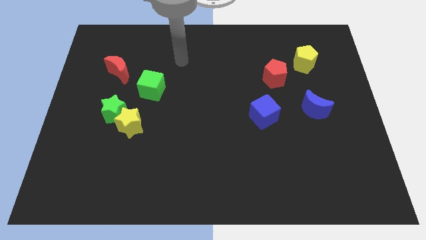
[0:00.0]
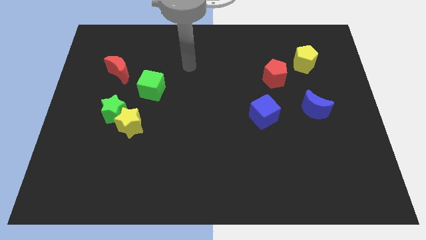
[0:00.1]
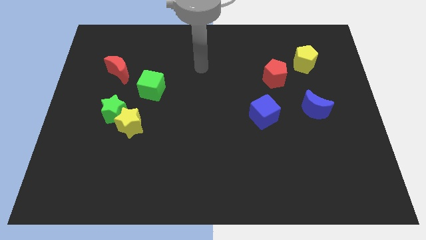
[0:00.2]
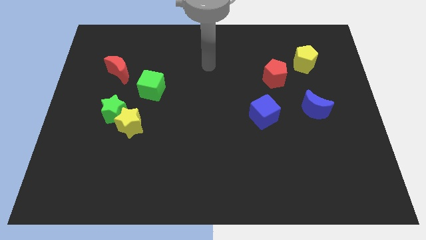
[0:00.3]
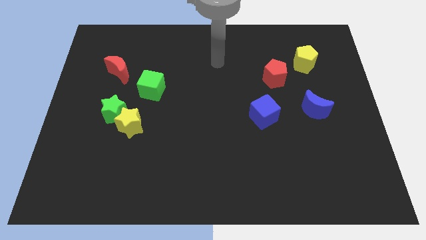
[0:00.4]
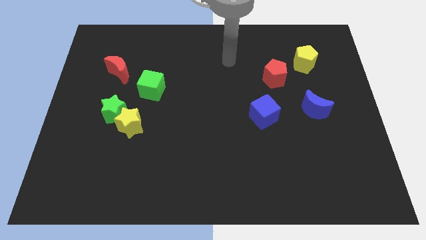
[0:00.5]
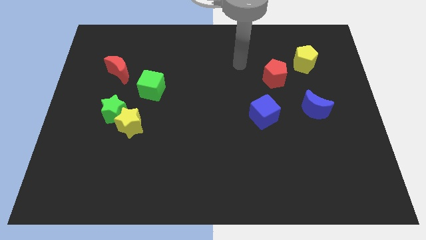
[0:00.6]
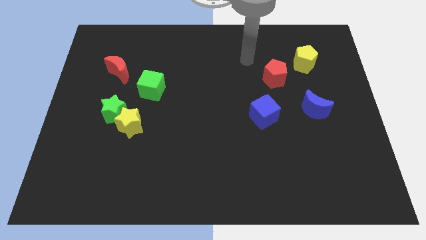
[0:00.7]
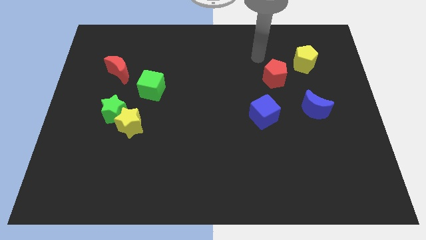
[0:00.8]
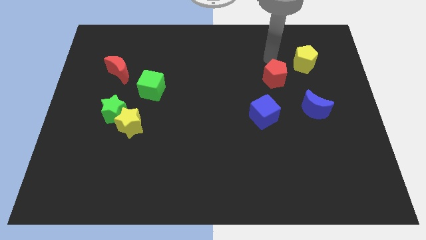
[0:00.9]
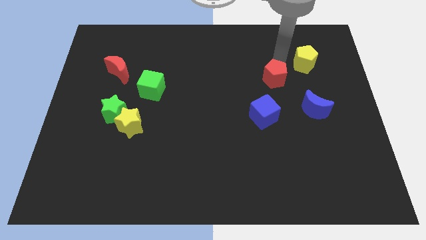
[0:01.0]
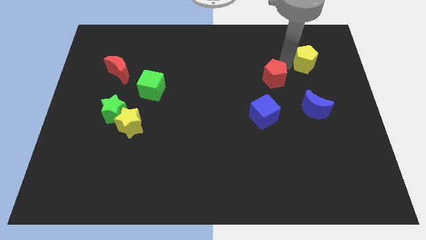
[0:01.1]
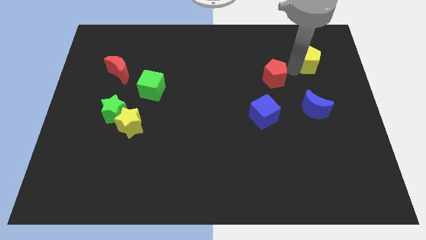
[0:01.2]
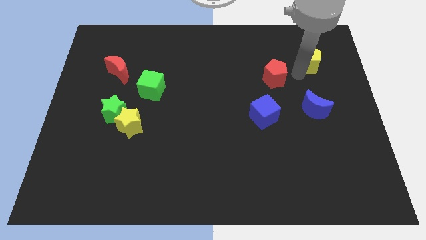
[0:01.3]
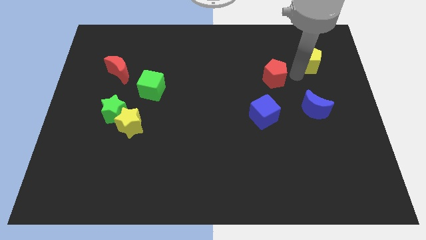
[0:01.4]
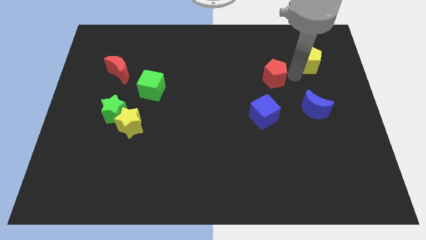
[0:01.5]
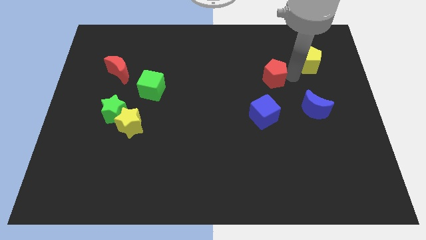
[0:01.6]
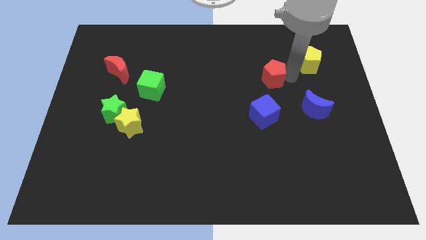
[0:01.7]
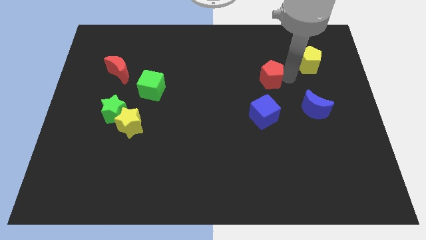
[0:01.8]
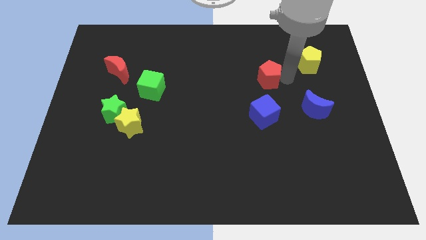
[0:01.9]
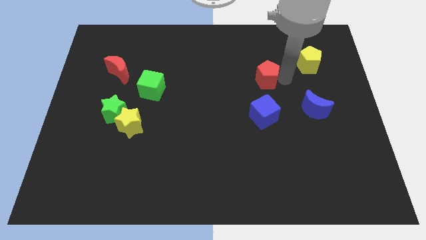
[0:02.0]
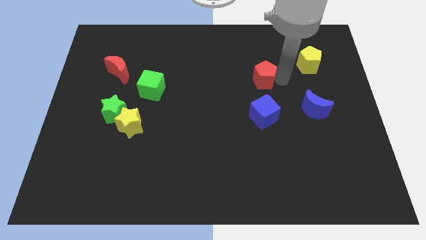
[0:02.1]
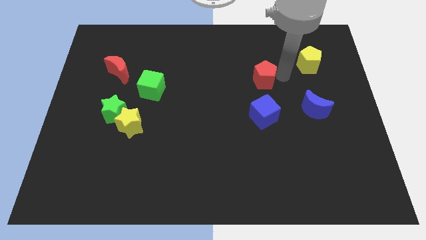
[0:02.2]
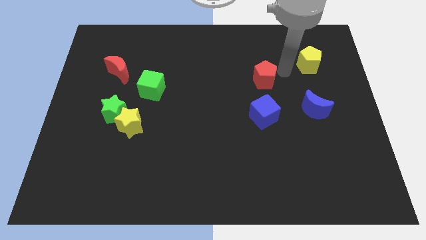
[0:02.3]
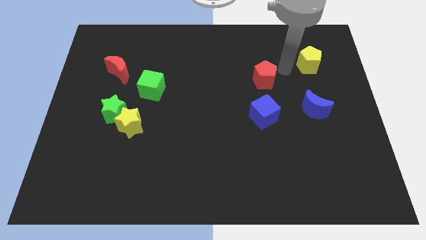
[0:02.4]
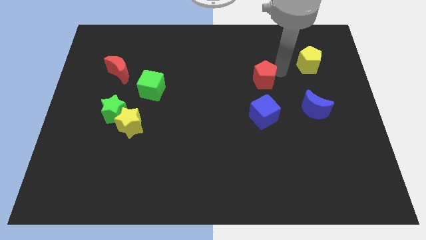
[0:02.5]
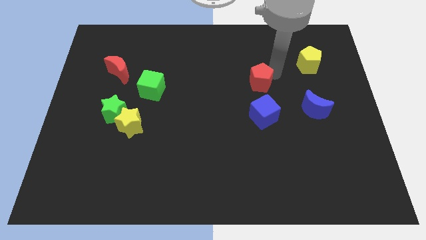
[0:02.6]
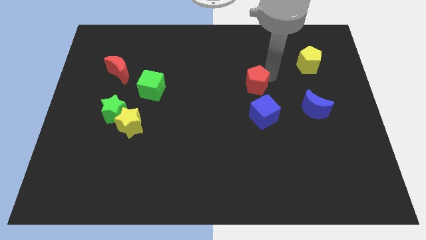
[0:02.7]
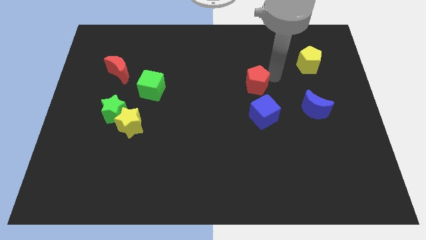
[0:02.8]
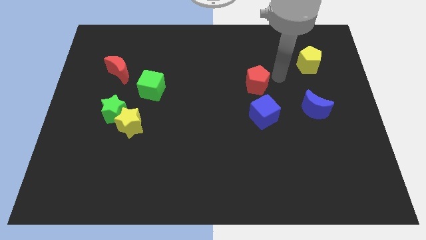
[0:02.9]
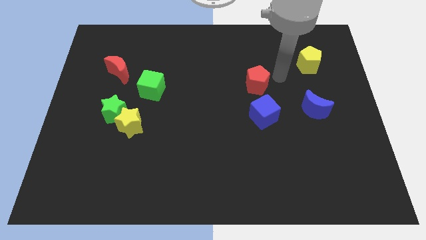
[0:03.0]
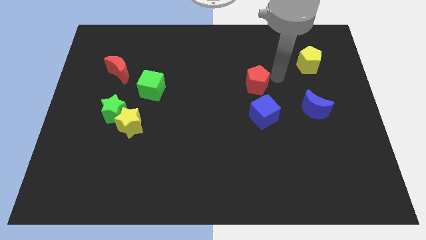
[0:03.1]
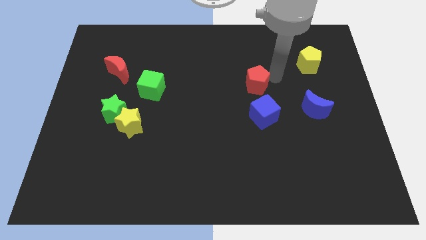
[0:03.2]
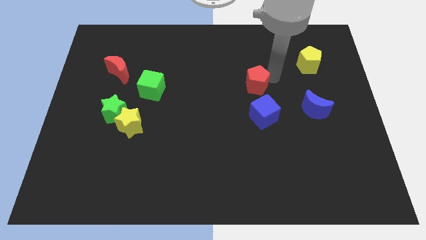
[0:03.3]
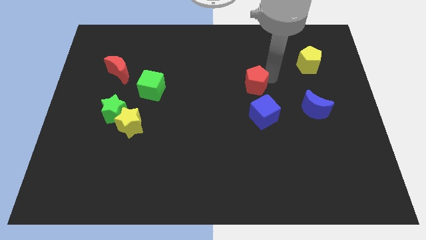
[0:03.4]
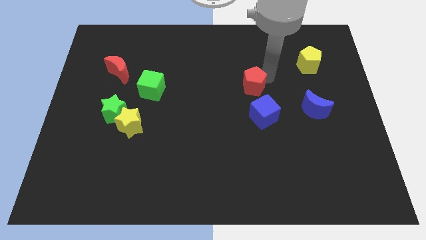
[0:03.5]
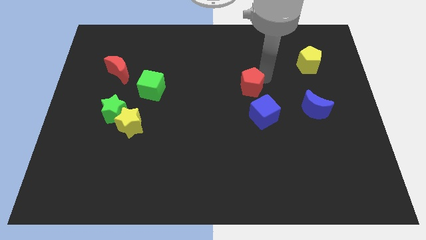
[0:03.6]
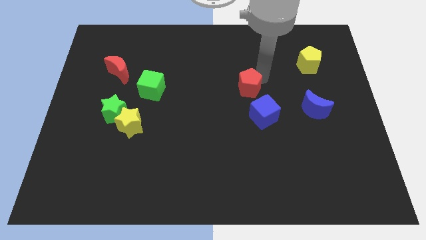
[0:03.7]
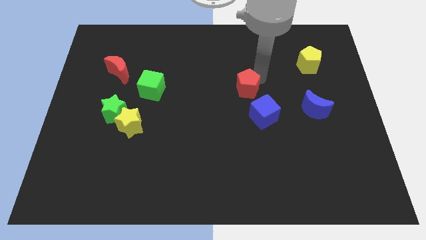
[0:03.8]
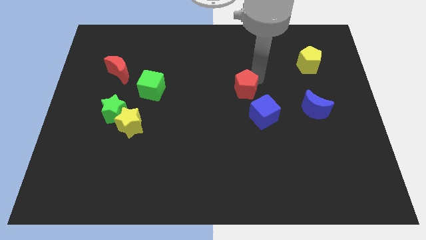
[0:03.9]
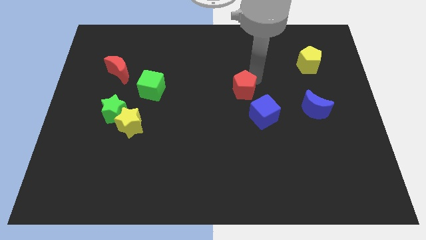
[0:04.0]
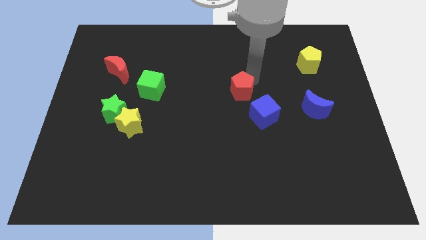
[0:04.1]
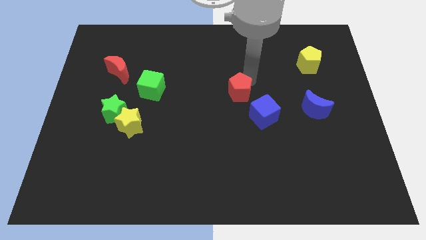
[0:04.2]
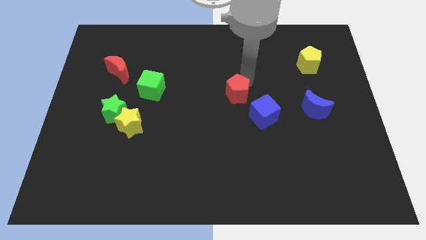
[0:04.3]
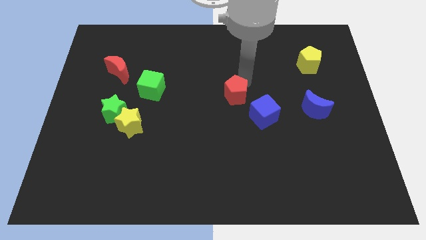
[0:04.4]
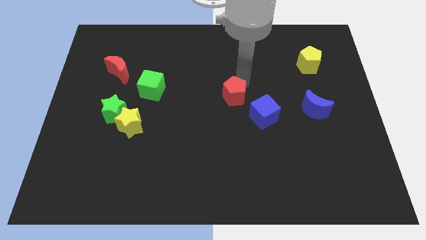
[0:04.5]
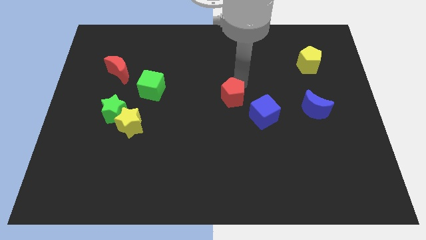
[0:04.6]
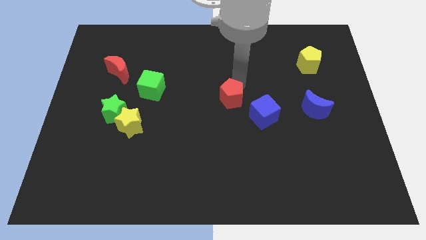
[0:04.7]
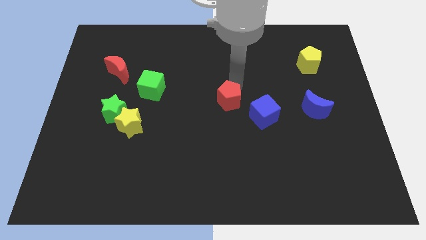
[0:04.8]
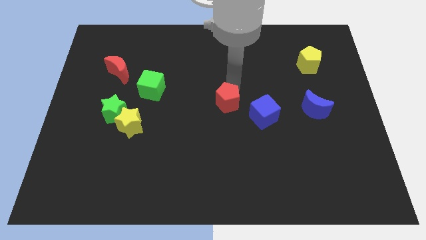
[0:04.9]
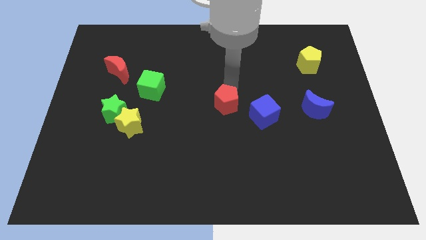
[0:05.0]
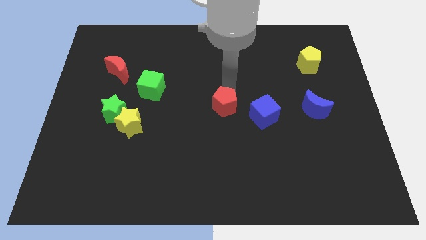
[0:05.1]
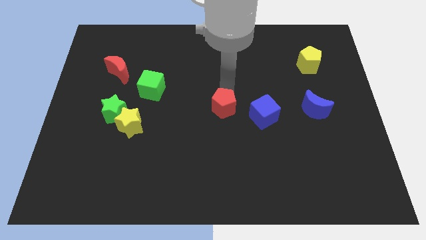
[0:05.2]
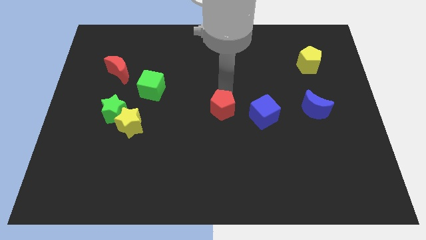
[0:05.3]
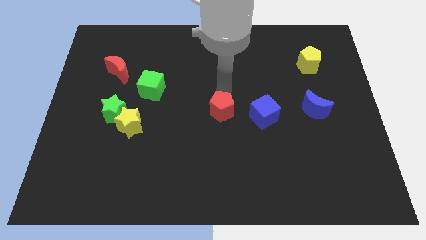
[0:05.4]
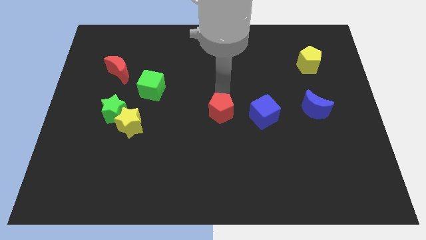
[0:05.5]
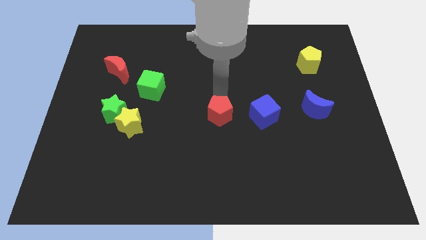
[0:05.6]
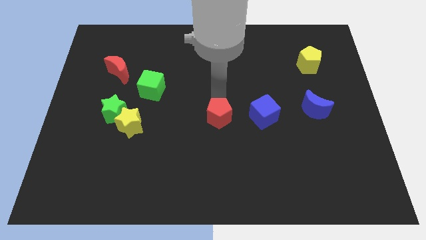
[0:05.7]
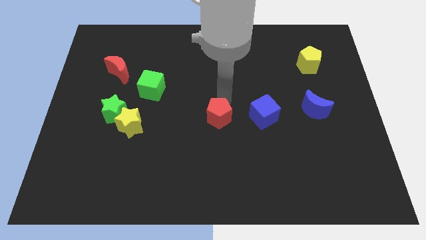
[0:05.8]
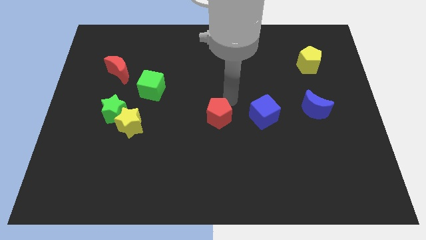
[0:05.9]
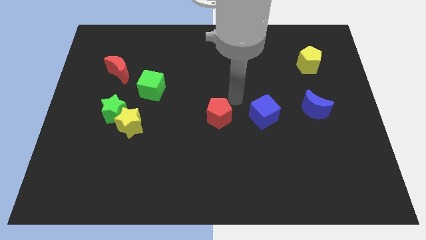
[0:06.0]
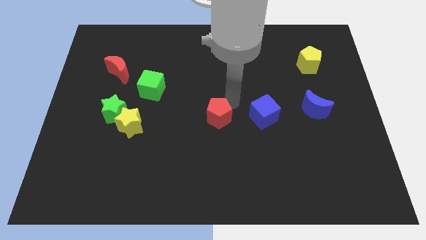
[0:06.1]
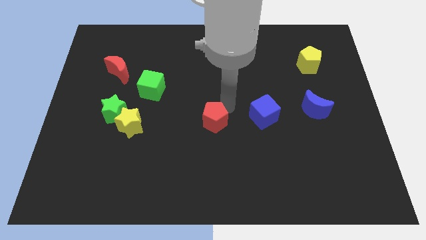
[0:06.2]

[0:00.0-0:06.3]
push the red pentagon diagonally downwards and to the left

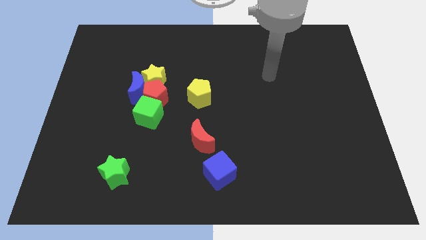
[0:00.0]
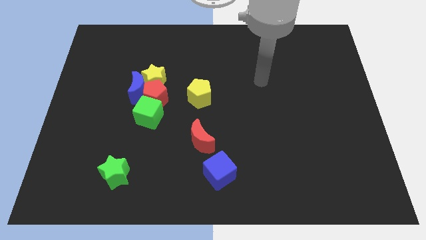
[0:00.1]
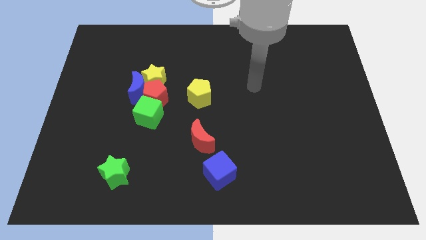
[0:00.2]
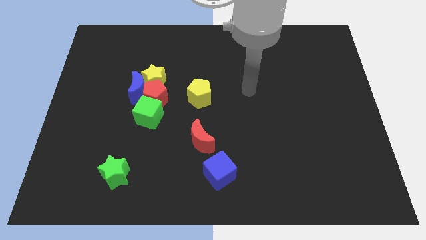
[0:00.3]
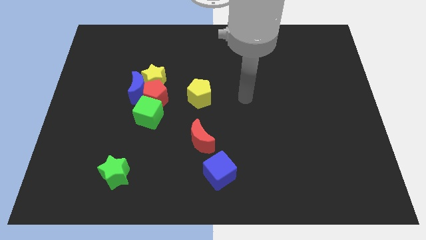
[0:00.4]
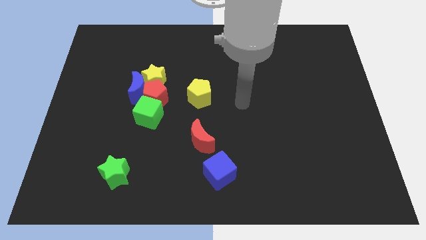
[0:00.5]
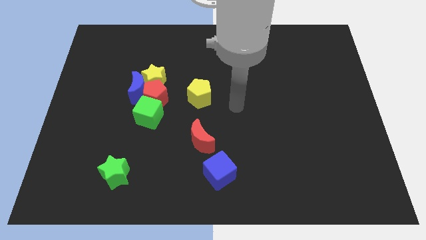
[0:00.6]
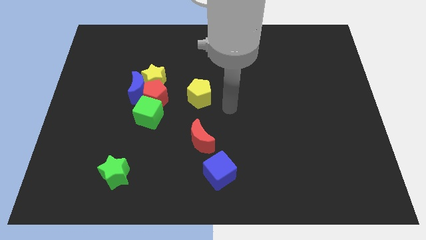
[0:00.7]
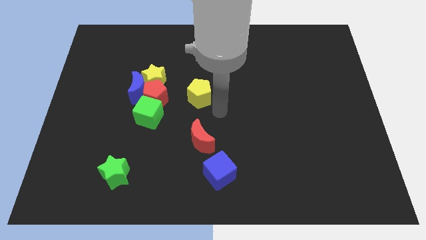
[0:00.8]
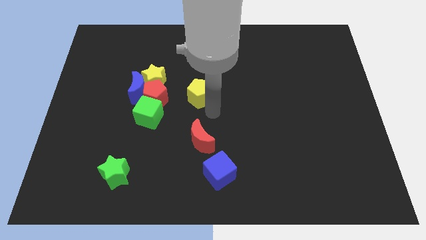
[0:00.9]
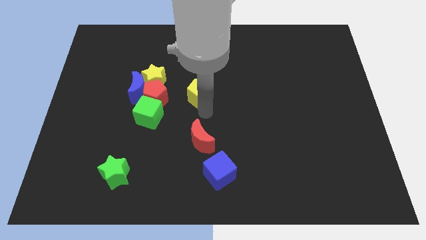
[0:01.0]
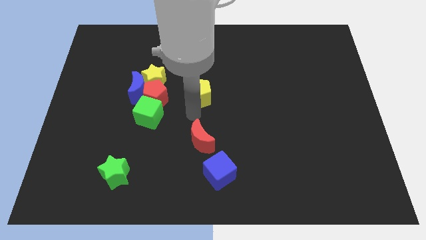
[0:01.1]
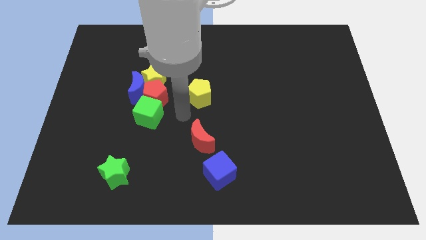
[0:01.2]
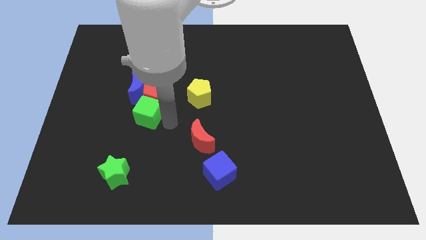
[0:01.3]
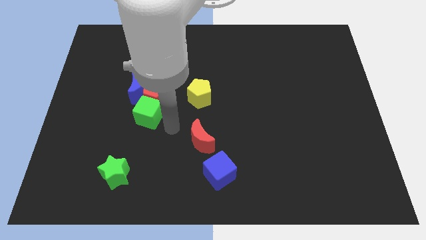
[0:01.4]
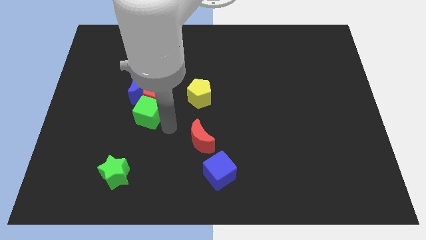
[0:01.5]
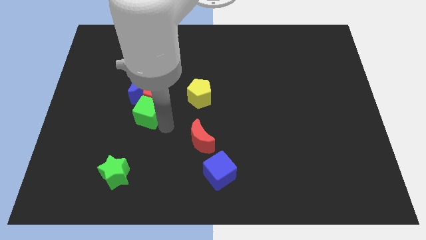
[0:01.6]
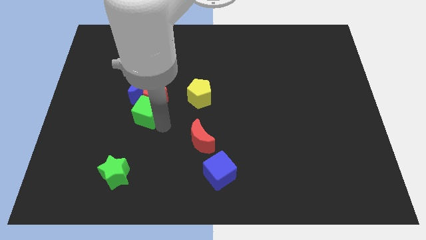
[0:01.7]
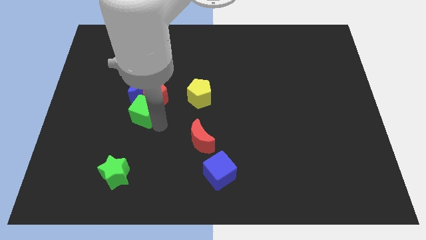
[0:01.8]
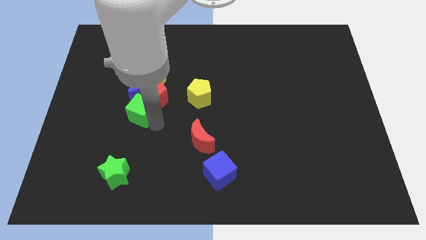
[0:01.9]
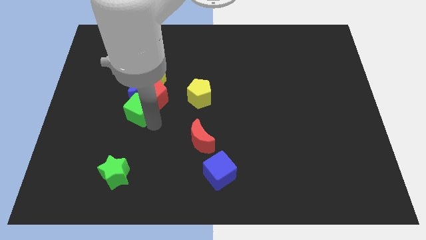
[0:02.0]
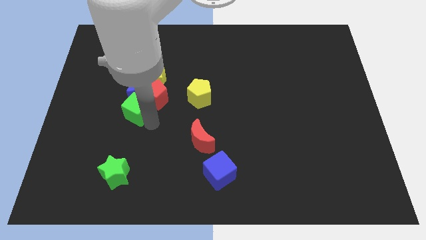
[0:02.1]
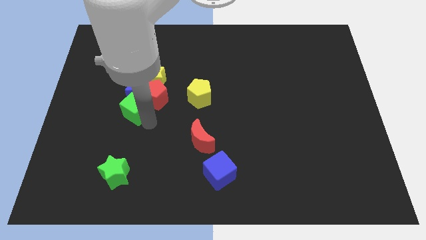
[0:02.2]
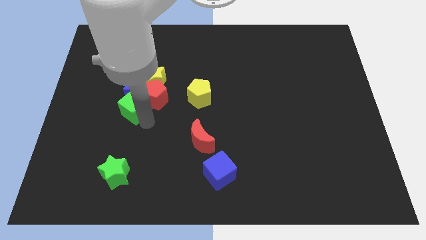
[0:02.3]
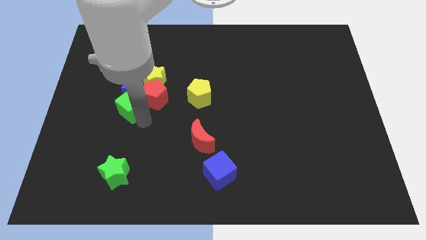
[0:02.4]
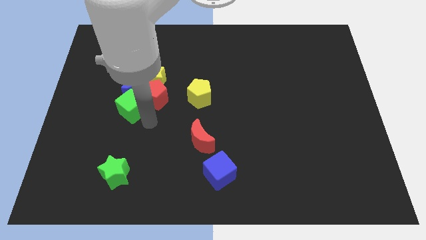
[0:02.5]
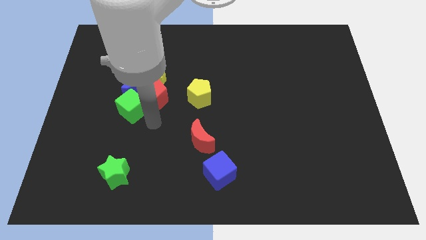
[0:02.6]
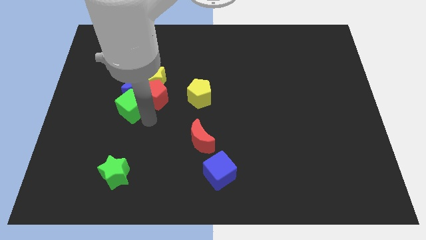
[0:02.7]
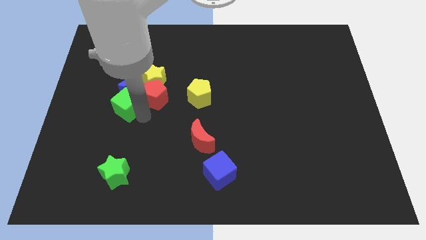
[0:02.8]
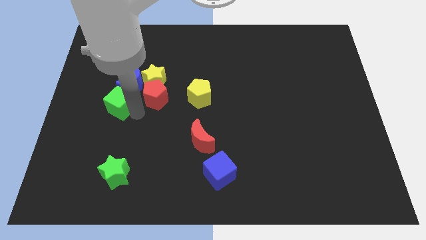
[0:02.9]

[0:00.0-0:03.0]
push the green cube somewhat up and to the left
